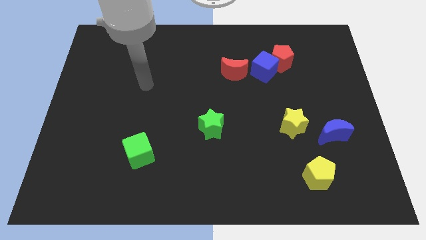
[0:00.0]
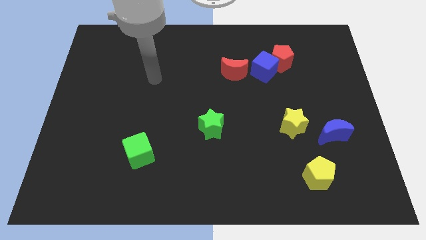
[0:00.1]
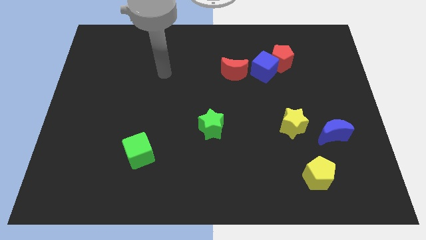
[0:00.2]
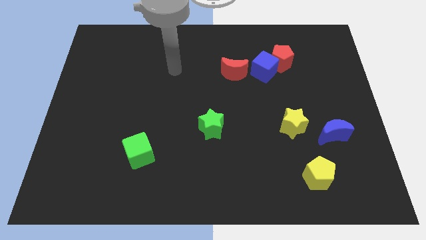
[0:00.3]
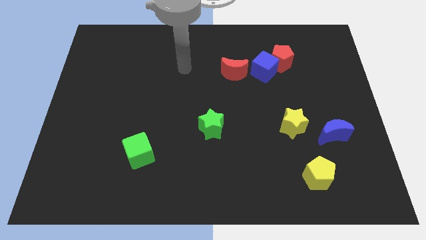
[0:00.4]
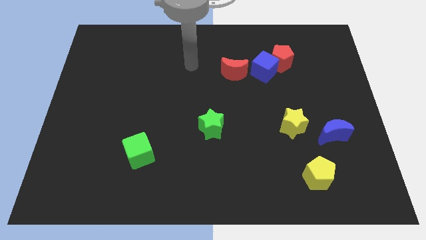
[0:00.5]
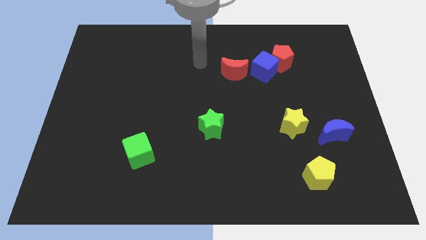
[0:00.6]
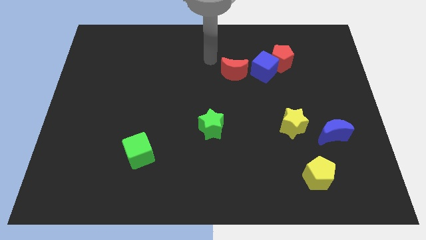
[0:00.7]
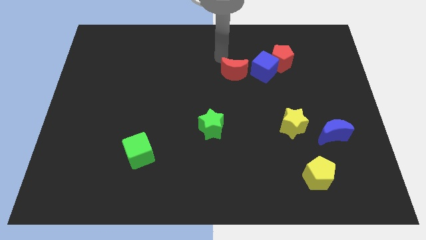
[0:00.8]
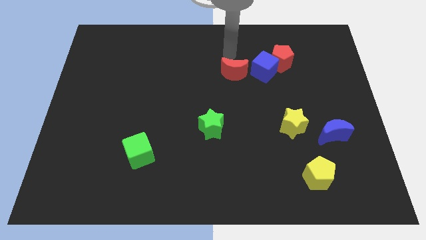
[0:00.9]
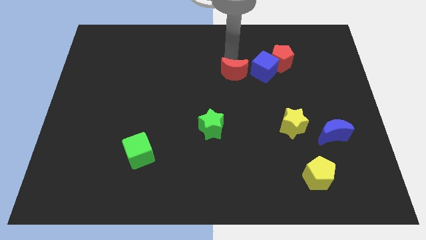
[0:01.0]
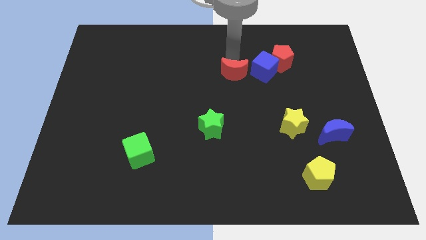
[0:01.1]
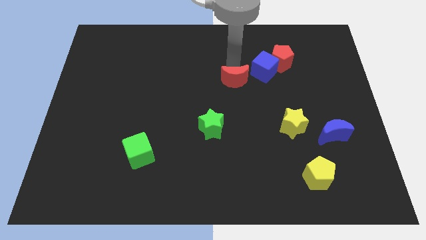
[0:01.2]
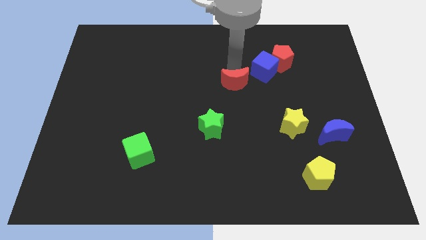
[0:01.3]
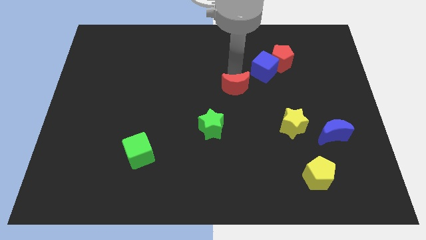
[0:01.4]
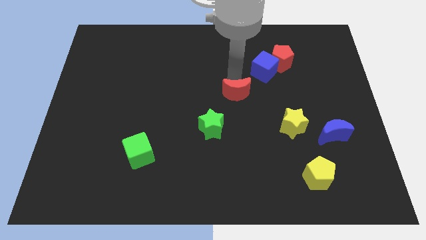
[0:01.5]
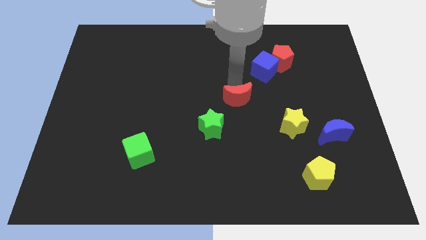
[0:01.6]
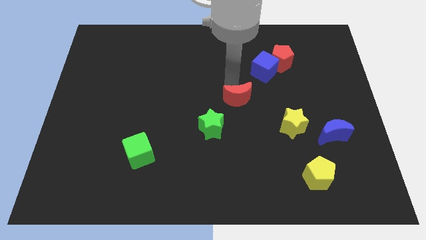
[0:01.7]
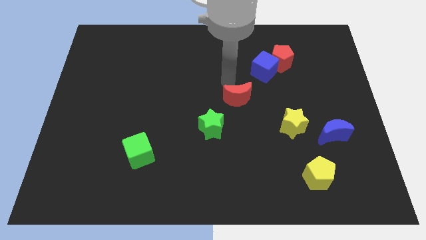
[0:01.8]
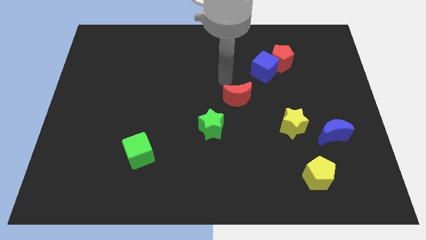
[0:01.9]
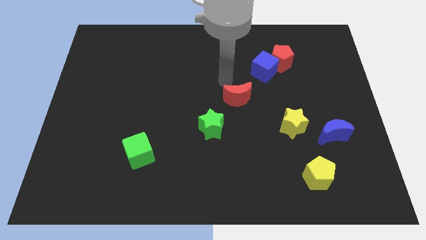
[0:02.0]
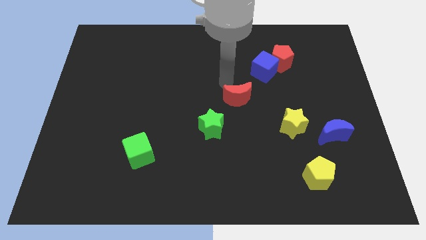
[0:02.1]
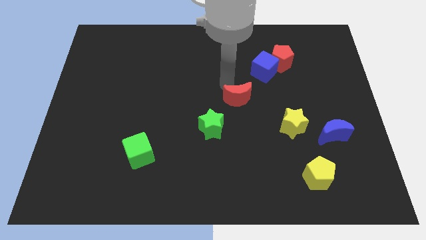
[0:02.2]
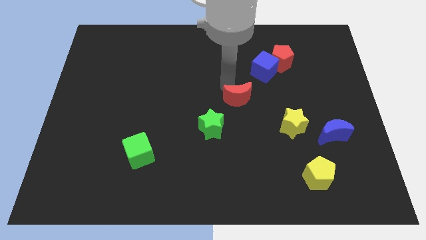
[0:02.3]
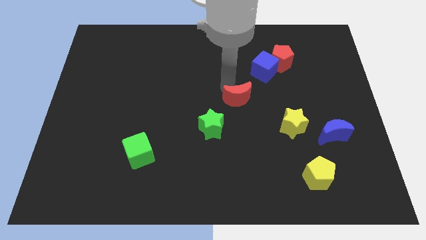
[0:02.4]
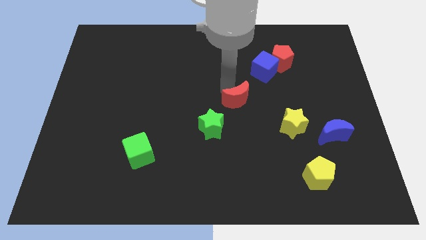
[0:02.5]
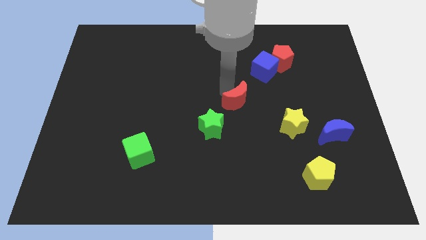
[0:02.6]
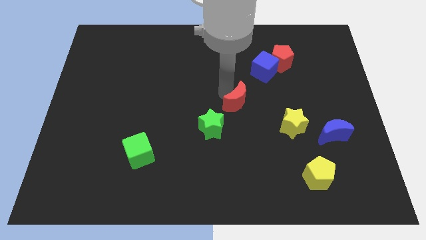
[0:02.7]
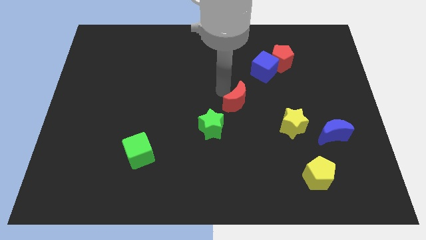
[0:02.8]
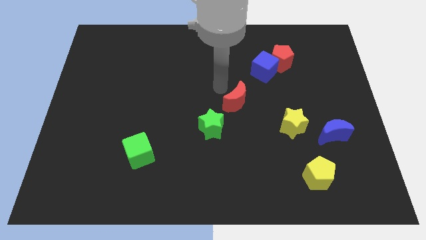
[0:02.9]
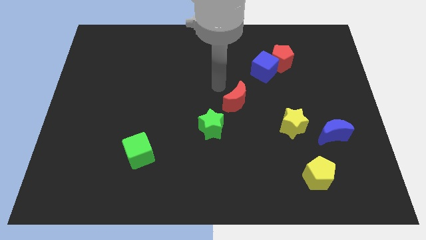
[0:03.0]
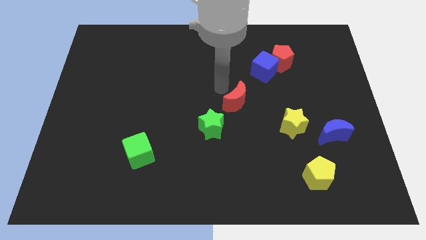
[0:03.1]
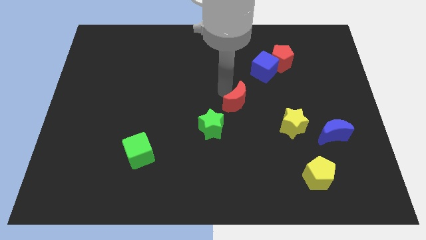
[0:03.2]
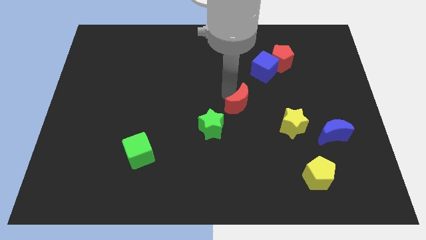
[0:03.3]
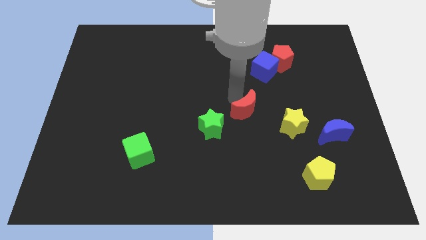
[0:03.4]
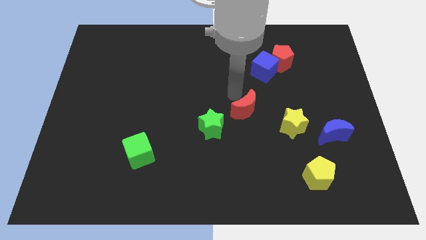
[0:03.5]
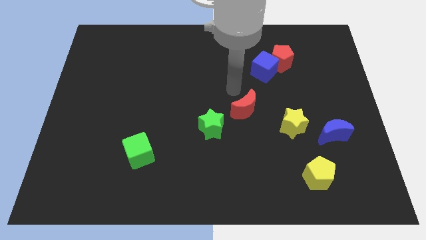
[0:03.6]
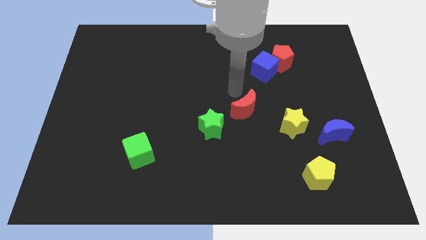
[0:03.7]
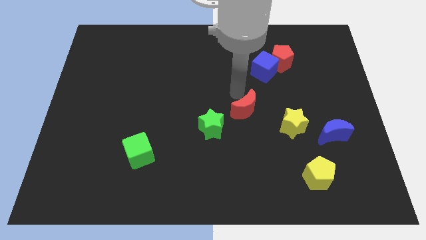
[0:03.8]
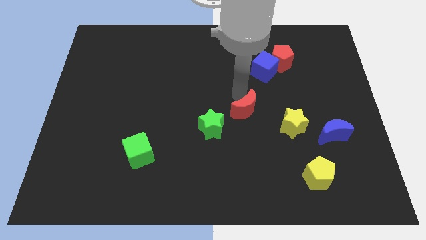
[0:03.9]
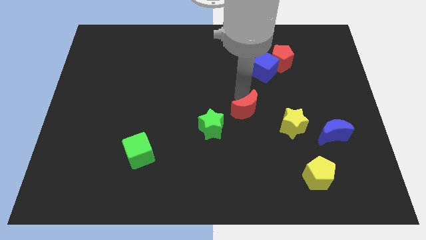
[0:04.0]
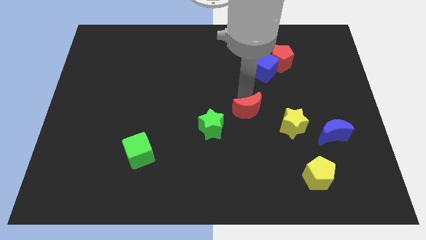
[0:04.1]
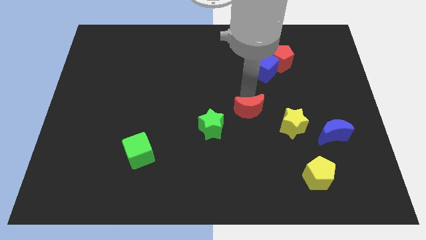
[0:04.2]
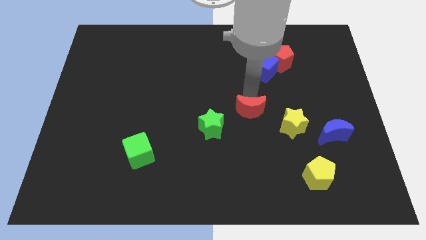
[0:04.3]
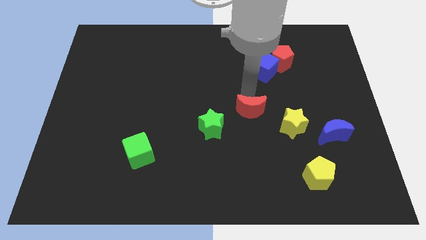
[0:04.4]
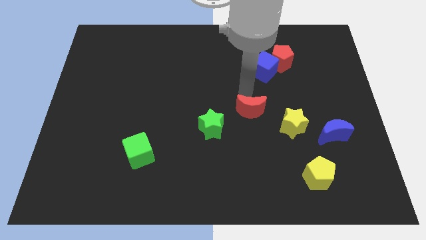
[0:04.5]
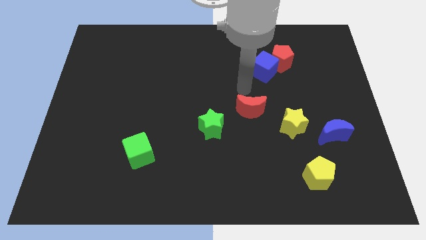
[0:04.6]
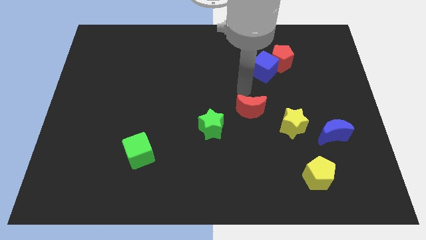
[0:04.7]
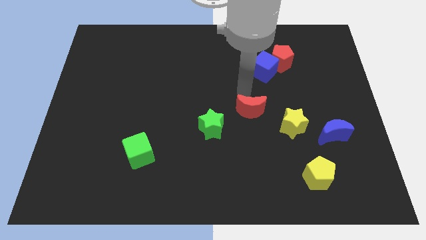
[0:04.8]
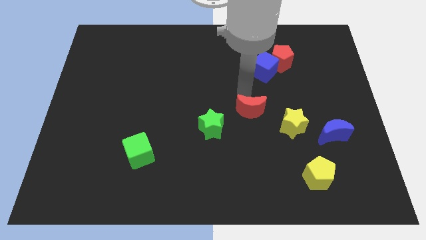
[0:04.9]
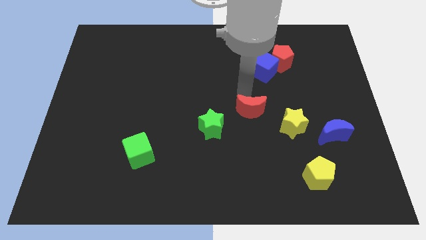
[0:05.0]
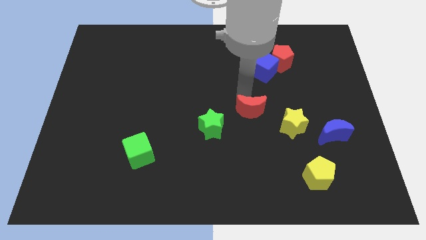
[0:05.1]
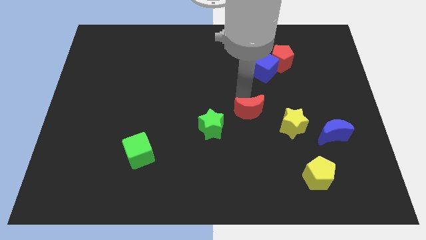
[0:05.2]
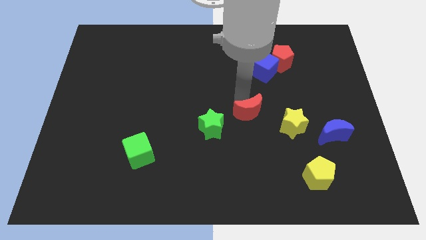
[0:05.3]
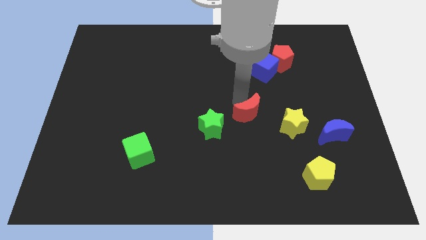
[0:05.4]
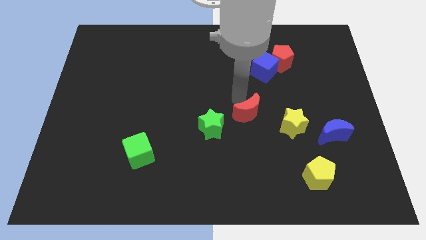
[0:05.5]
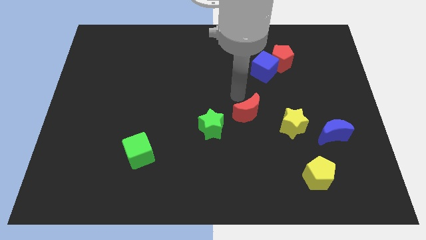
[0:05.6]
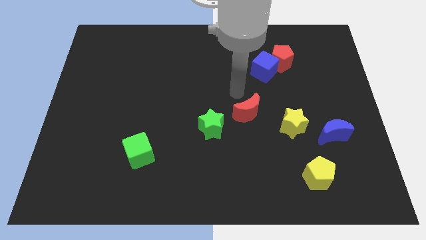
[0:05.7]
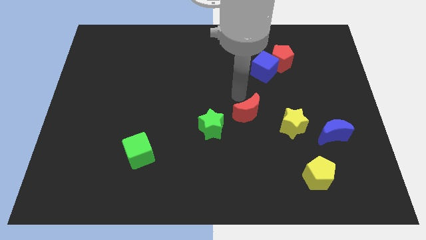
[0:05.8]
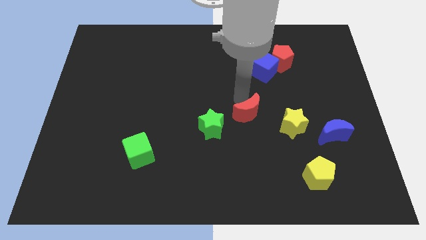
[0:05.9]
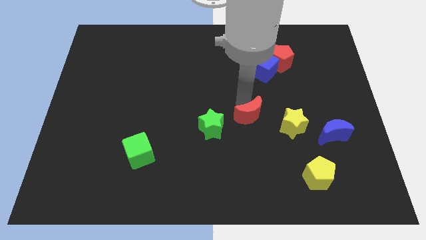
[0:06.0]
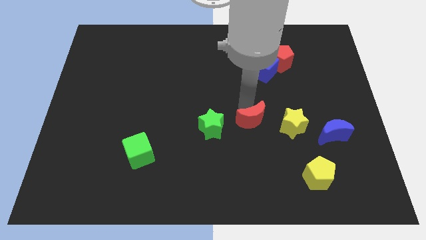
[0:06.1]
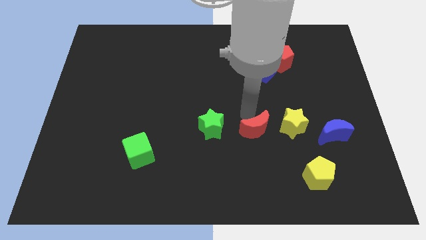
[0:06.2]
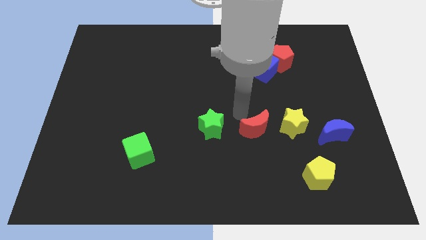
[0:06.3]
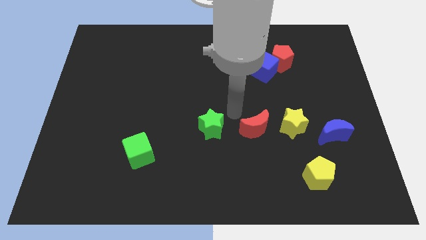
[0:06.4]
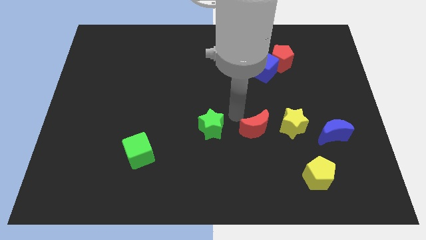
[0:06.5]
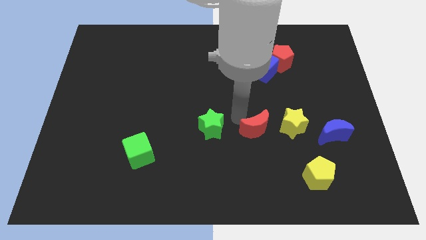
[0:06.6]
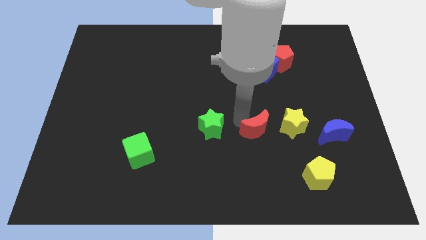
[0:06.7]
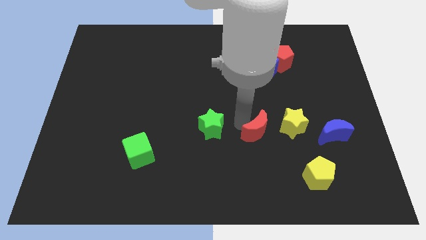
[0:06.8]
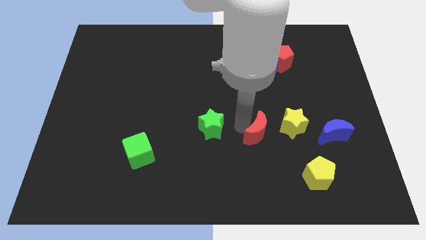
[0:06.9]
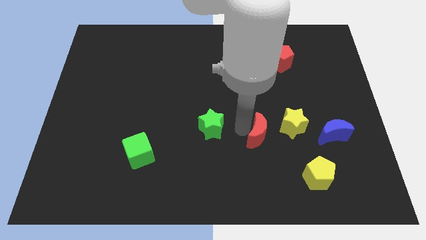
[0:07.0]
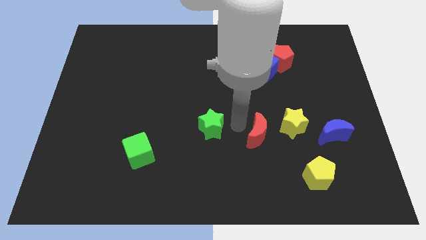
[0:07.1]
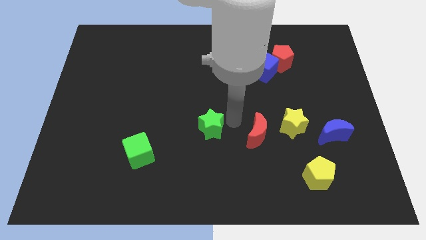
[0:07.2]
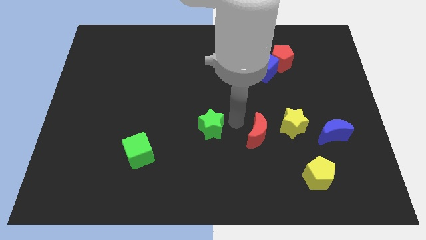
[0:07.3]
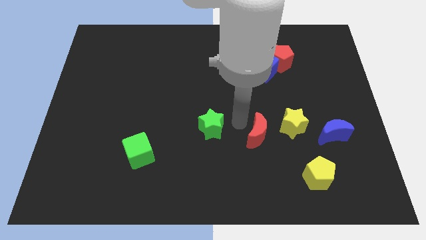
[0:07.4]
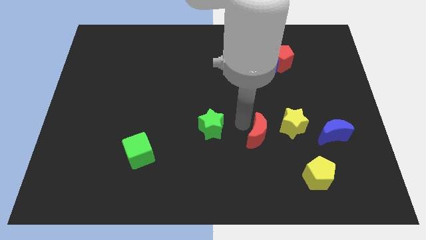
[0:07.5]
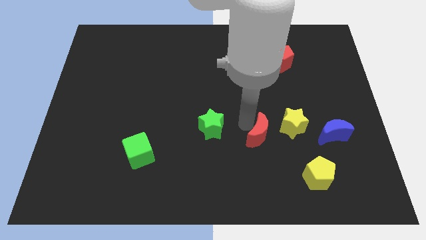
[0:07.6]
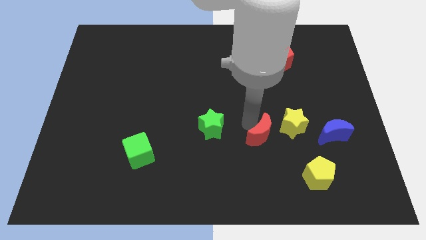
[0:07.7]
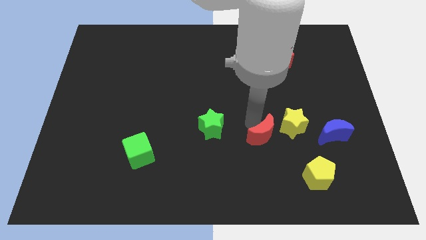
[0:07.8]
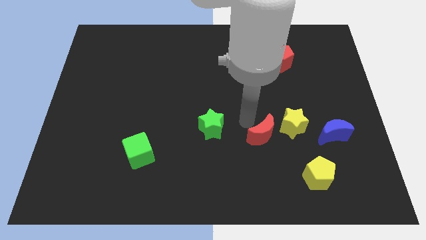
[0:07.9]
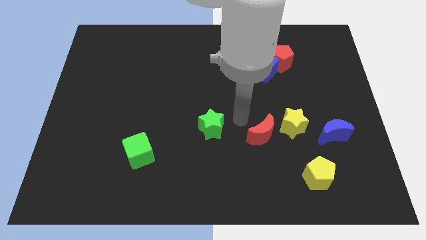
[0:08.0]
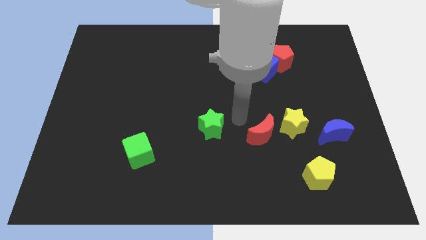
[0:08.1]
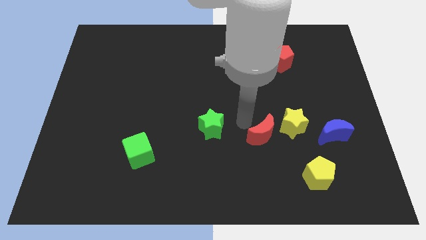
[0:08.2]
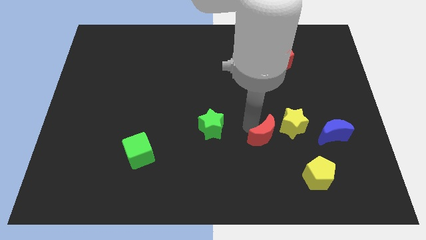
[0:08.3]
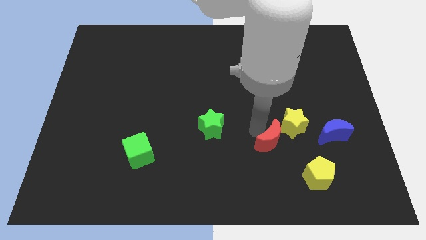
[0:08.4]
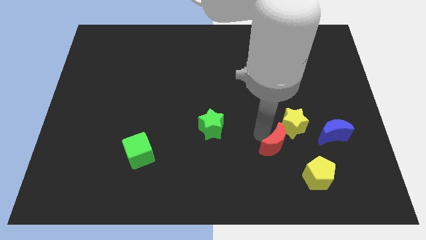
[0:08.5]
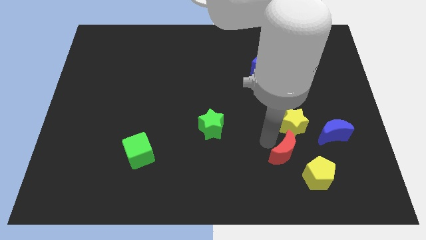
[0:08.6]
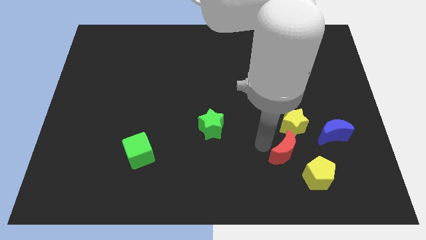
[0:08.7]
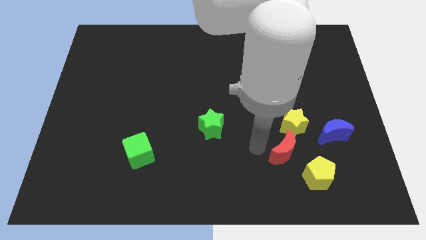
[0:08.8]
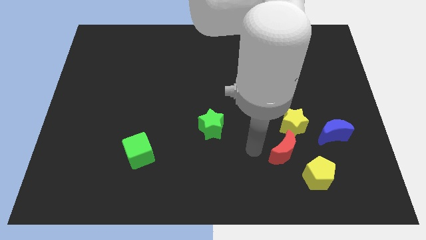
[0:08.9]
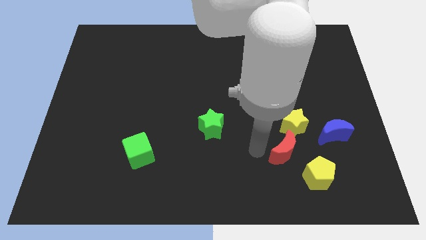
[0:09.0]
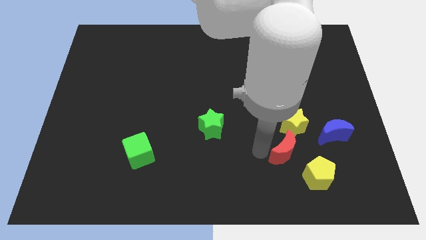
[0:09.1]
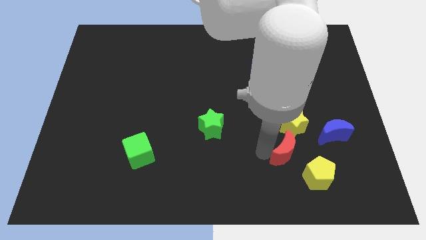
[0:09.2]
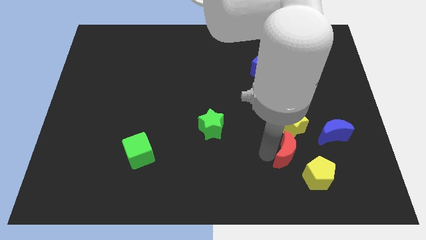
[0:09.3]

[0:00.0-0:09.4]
push the red moon diagonally down and to the right
